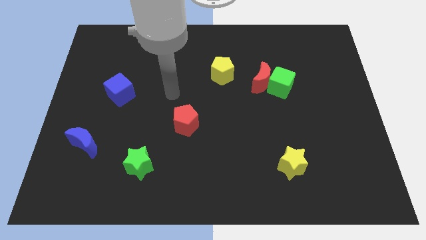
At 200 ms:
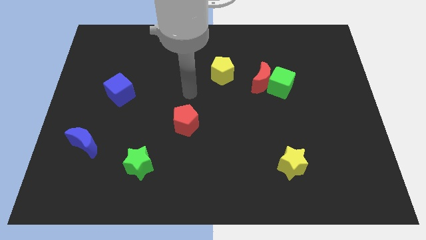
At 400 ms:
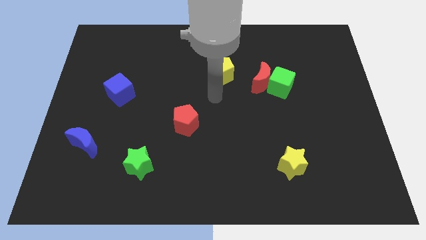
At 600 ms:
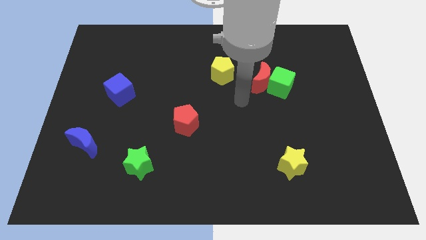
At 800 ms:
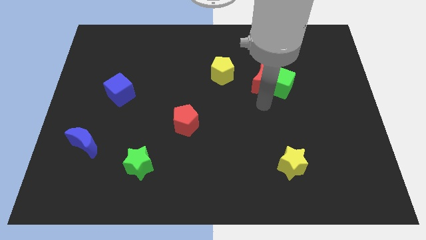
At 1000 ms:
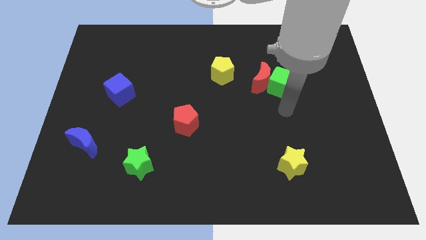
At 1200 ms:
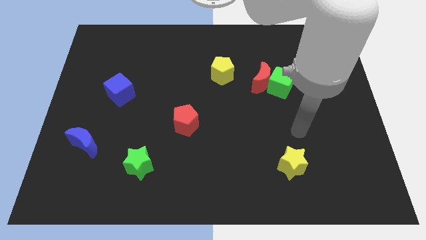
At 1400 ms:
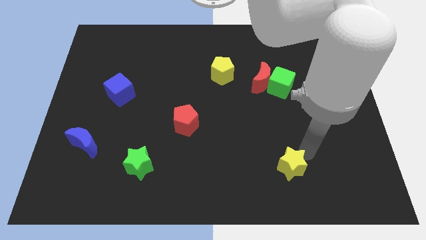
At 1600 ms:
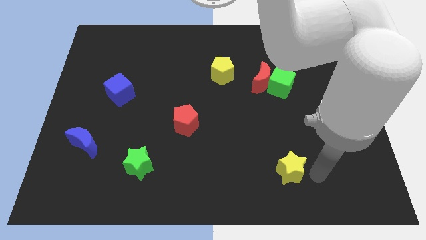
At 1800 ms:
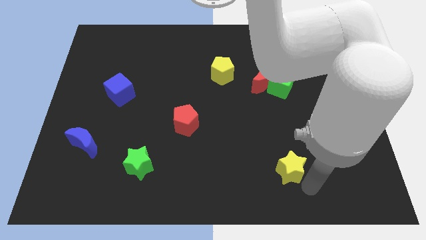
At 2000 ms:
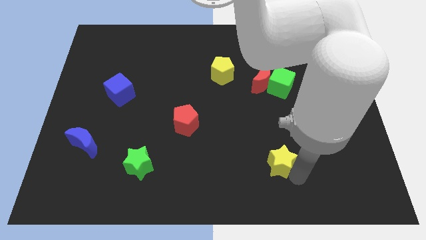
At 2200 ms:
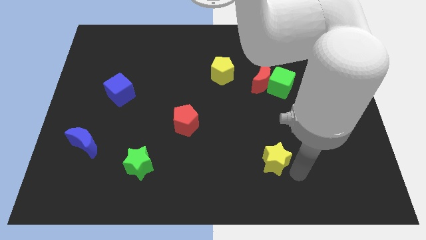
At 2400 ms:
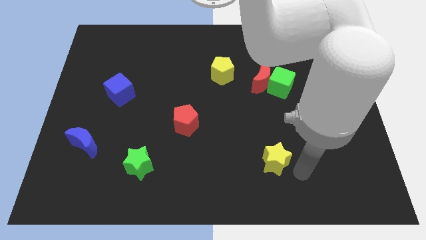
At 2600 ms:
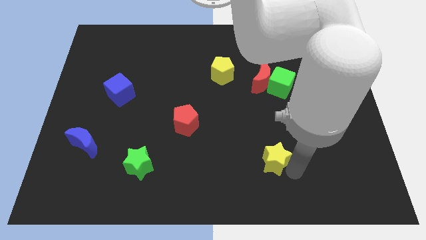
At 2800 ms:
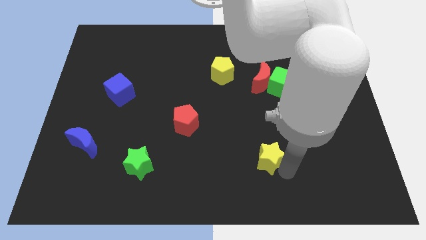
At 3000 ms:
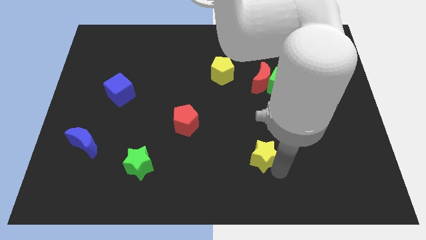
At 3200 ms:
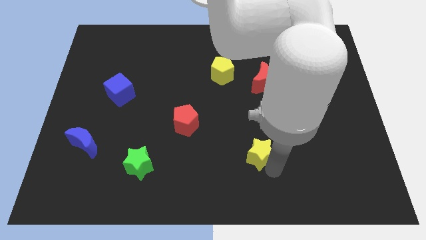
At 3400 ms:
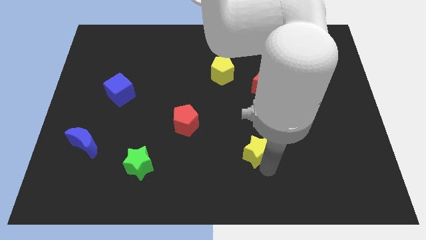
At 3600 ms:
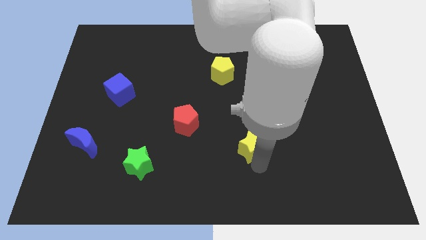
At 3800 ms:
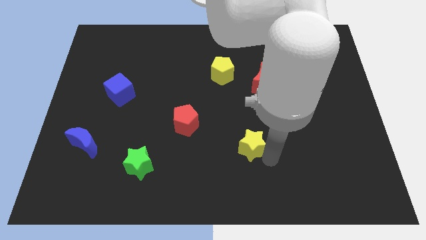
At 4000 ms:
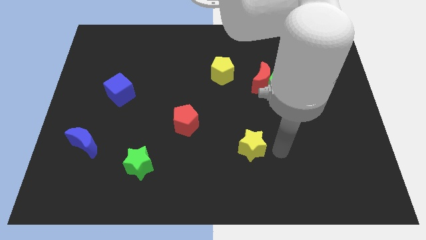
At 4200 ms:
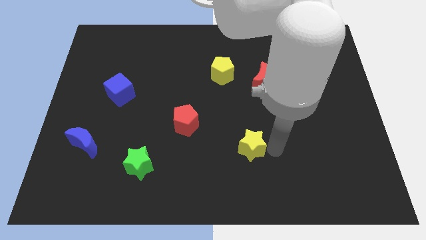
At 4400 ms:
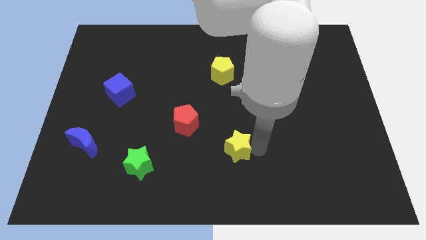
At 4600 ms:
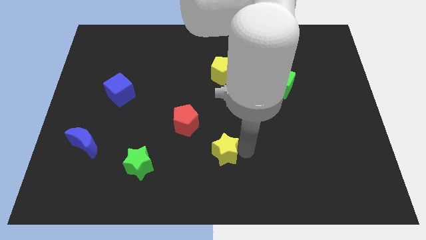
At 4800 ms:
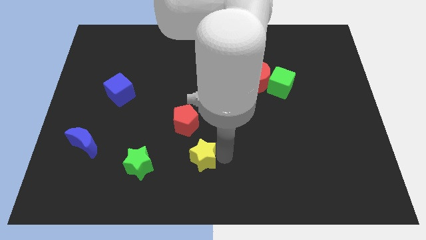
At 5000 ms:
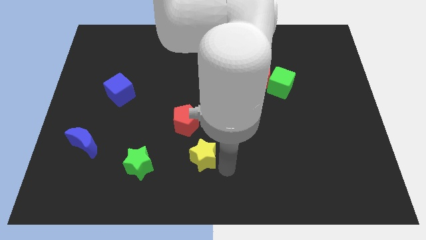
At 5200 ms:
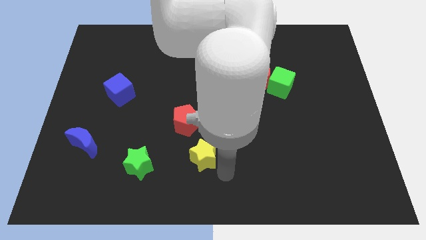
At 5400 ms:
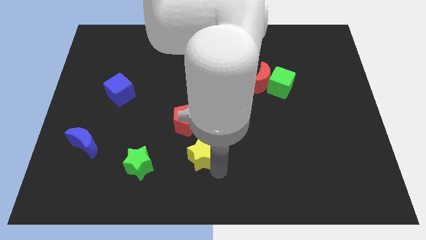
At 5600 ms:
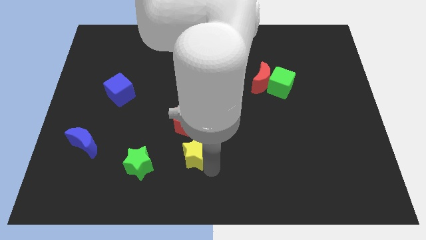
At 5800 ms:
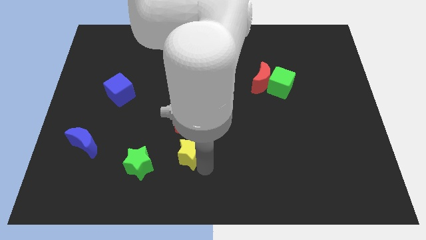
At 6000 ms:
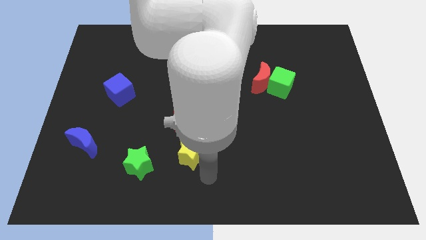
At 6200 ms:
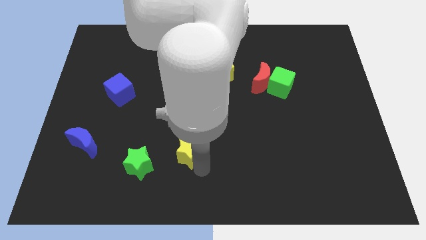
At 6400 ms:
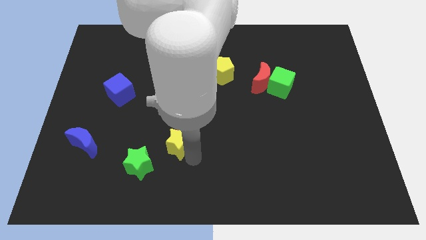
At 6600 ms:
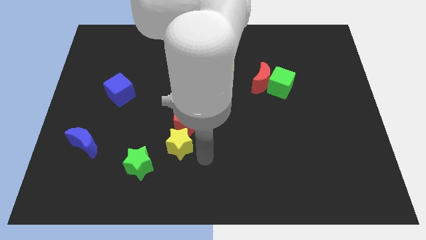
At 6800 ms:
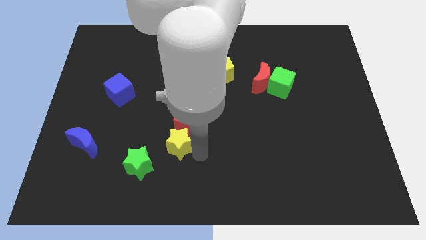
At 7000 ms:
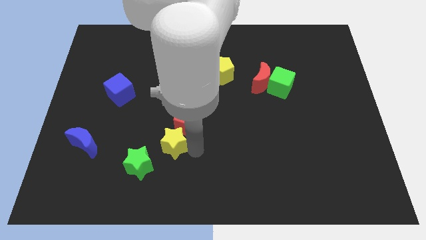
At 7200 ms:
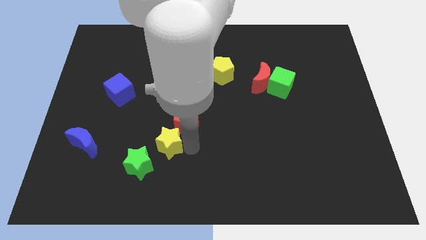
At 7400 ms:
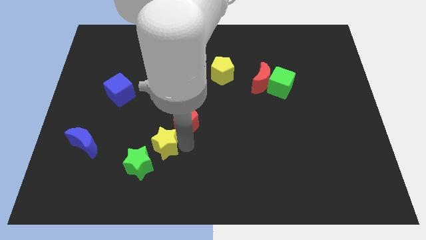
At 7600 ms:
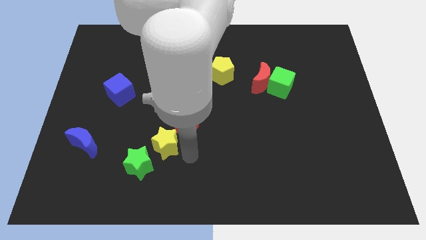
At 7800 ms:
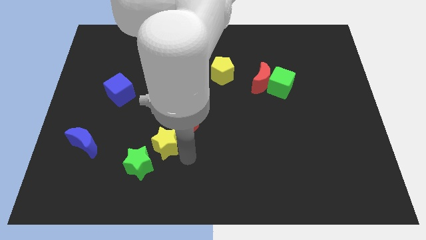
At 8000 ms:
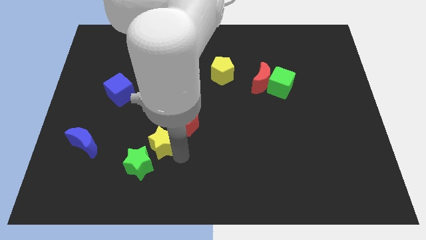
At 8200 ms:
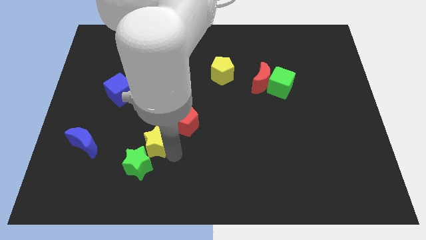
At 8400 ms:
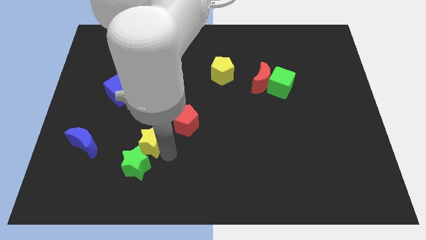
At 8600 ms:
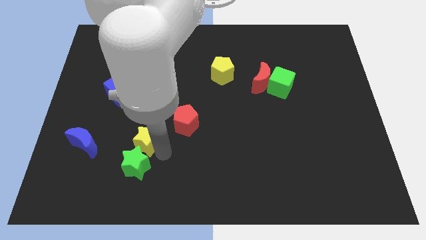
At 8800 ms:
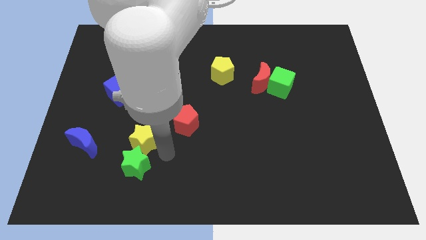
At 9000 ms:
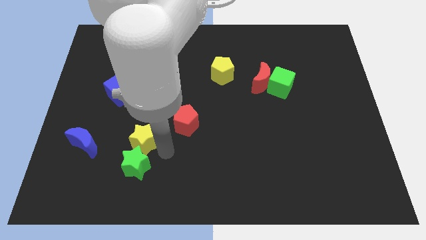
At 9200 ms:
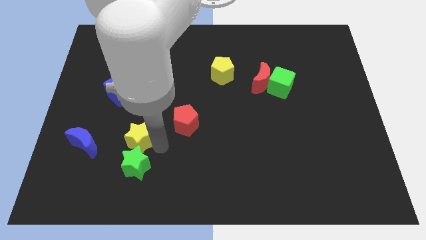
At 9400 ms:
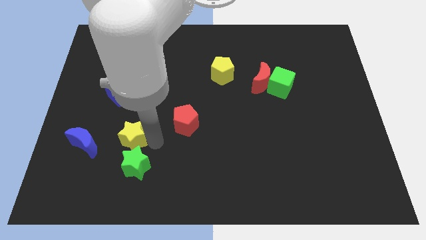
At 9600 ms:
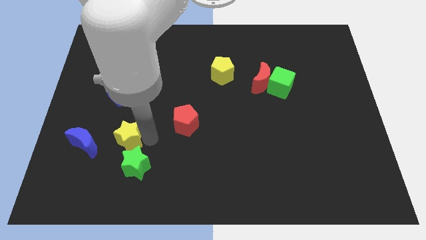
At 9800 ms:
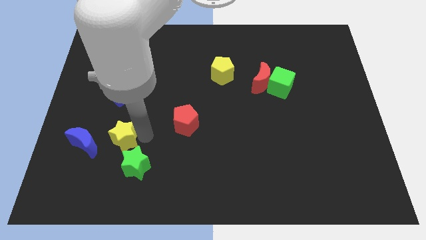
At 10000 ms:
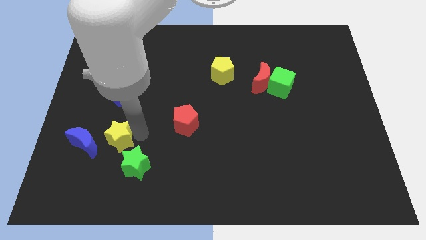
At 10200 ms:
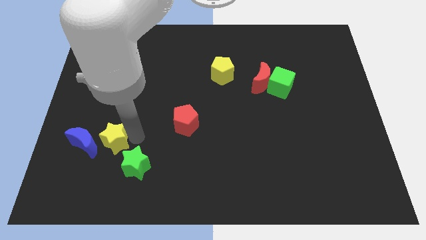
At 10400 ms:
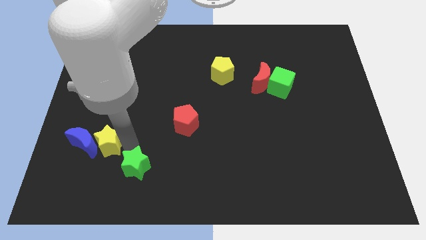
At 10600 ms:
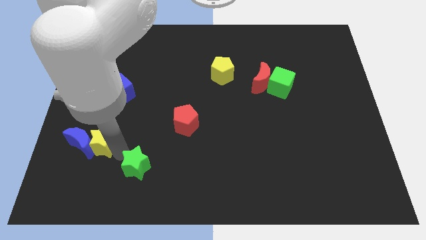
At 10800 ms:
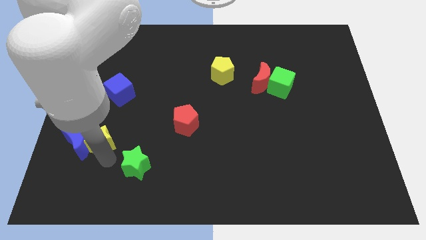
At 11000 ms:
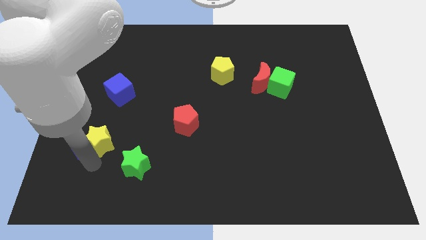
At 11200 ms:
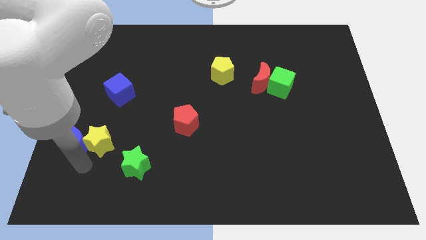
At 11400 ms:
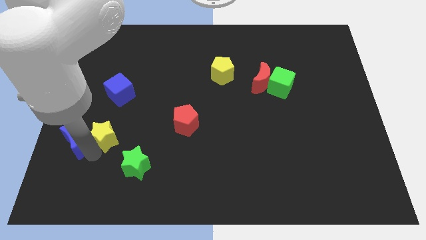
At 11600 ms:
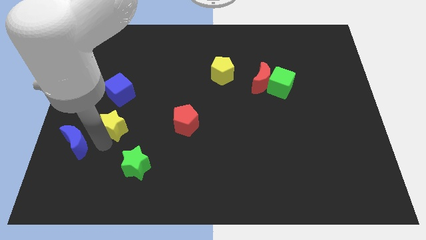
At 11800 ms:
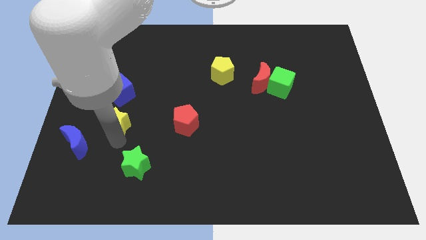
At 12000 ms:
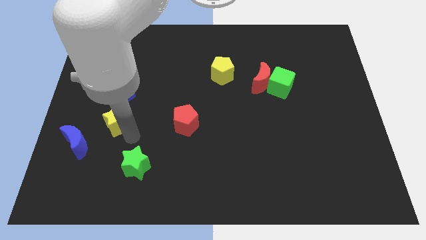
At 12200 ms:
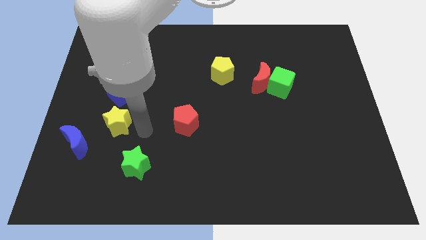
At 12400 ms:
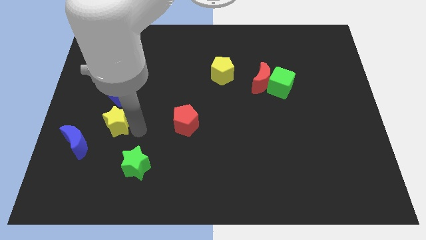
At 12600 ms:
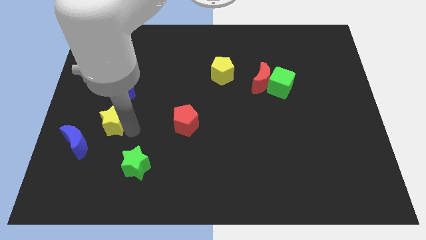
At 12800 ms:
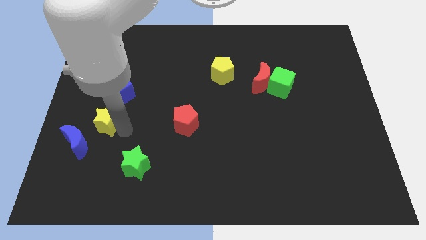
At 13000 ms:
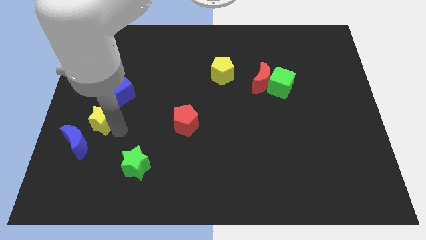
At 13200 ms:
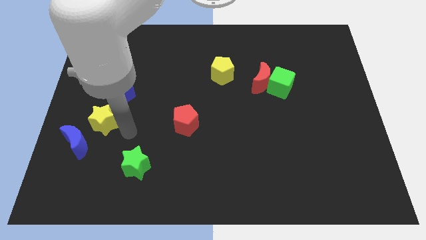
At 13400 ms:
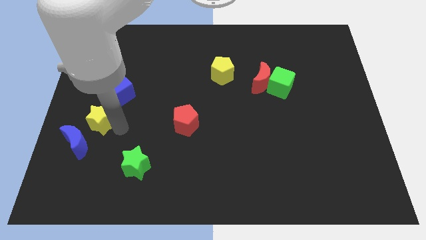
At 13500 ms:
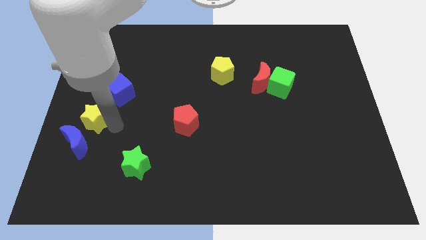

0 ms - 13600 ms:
put the yellow star to the center left

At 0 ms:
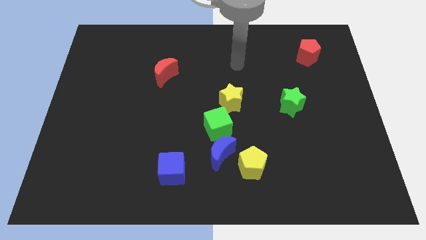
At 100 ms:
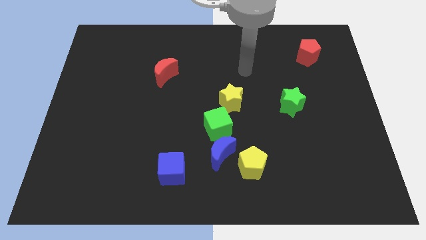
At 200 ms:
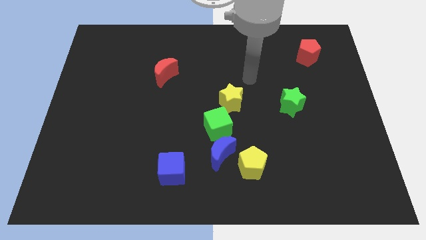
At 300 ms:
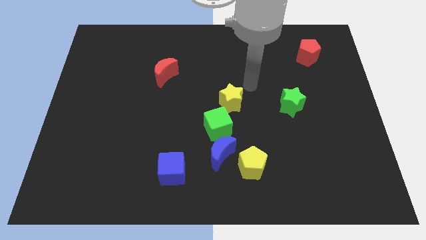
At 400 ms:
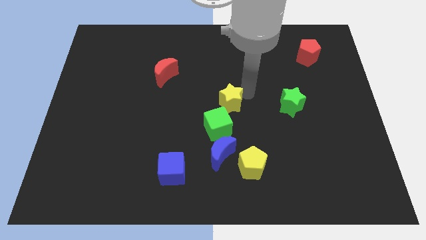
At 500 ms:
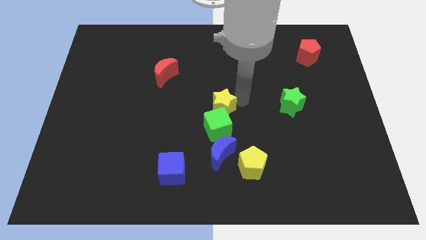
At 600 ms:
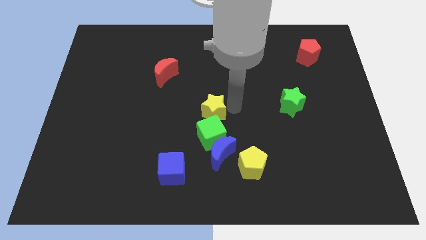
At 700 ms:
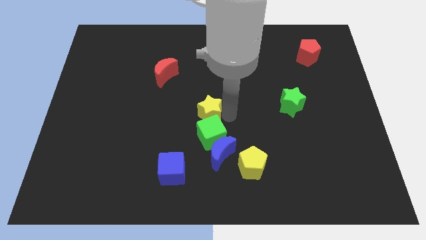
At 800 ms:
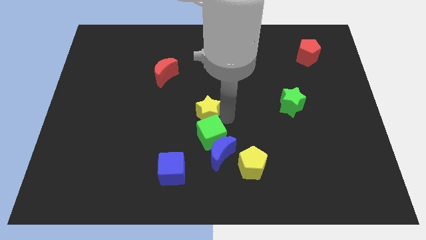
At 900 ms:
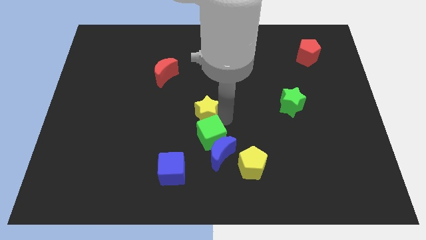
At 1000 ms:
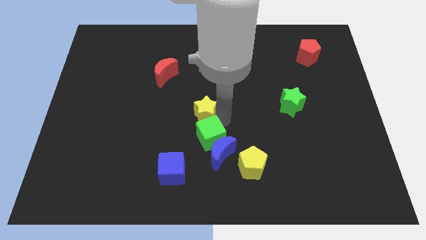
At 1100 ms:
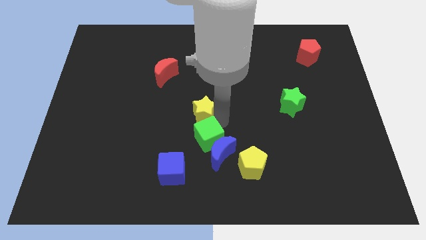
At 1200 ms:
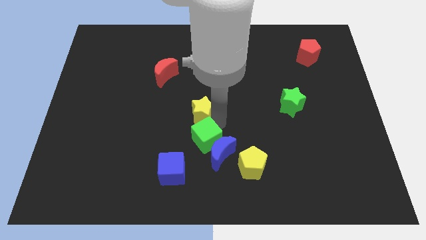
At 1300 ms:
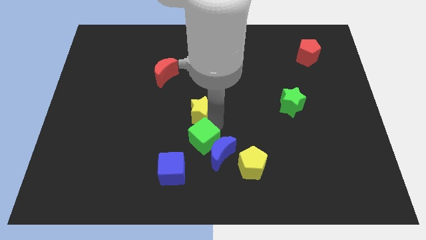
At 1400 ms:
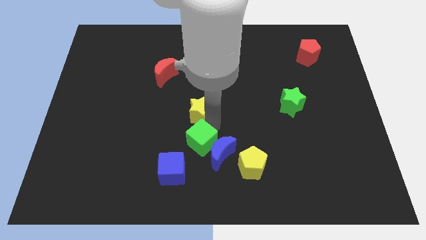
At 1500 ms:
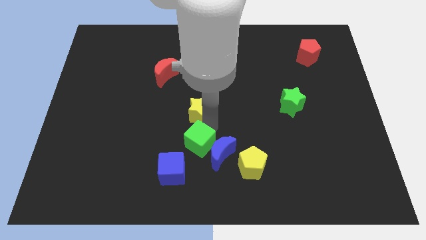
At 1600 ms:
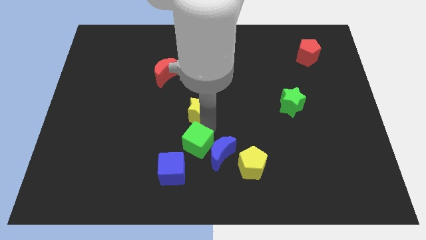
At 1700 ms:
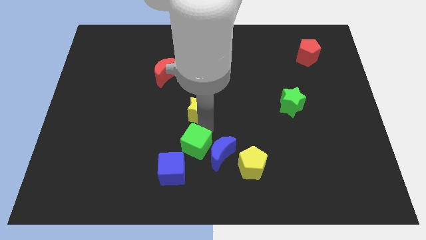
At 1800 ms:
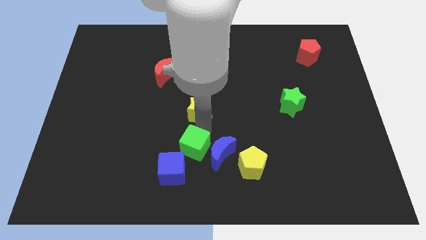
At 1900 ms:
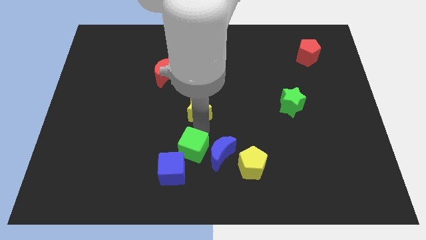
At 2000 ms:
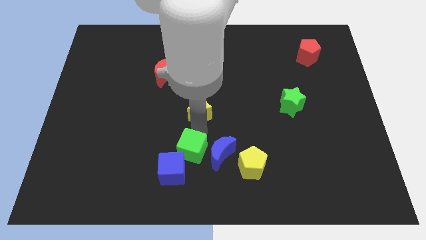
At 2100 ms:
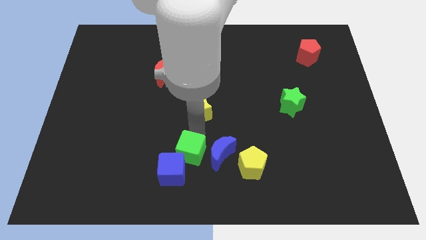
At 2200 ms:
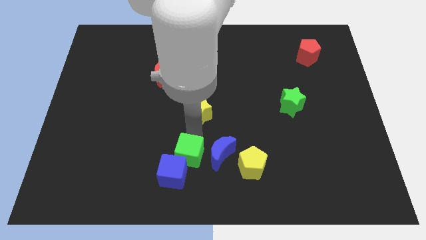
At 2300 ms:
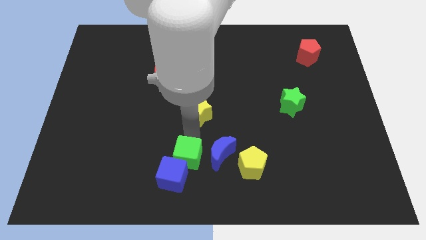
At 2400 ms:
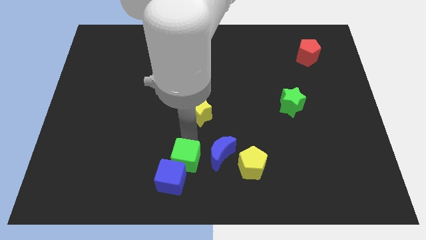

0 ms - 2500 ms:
slide the green cube to the bottom
